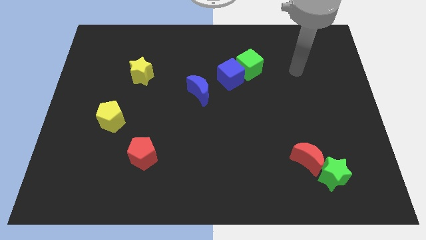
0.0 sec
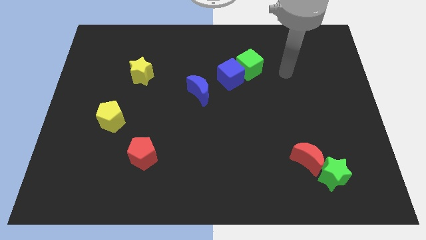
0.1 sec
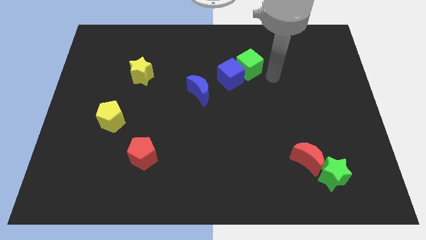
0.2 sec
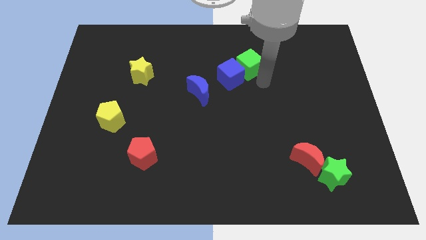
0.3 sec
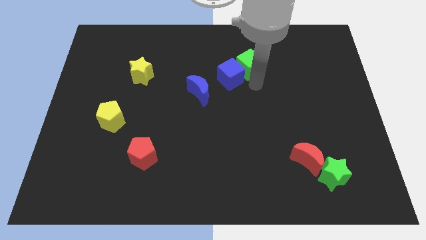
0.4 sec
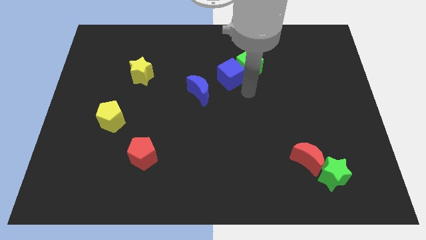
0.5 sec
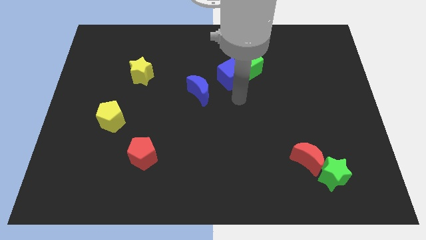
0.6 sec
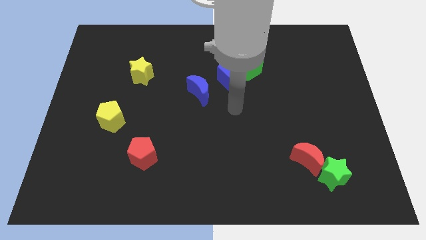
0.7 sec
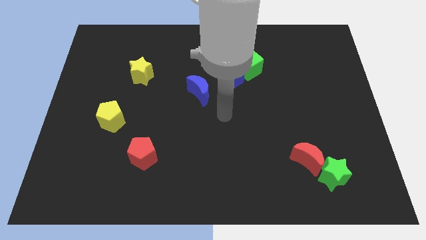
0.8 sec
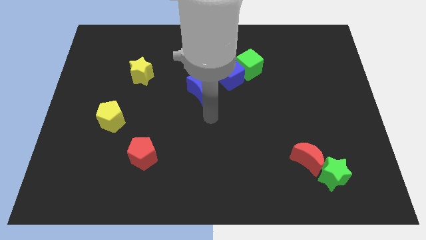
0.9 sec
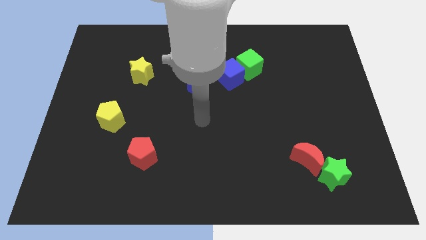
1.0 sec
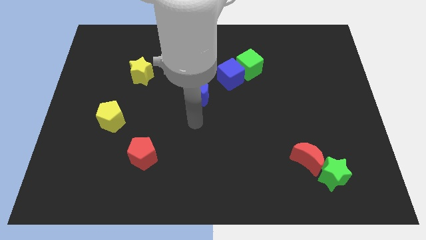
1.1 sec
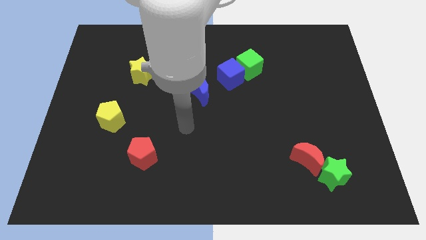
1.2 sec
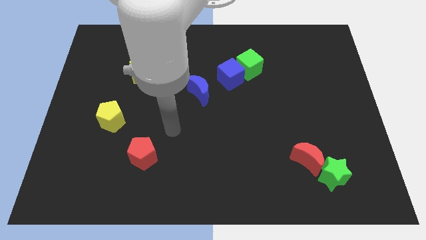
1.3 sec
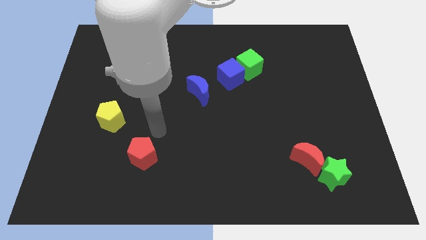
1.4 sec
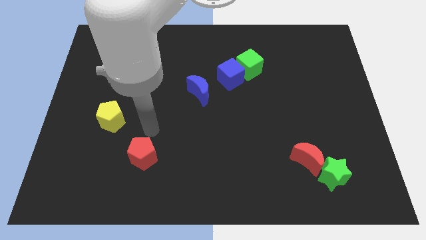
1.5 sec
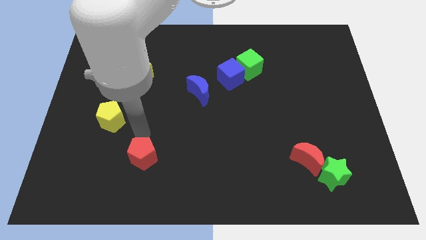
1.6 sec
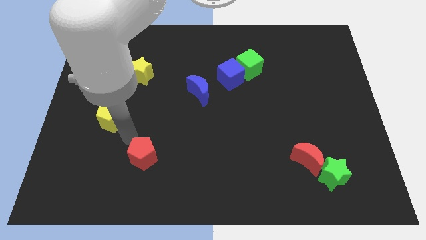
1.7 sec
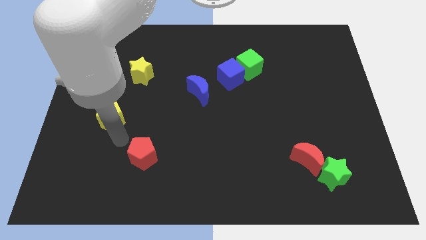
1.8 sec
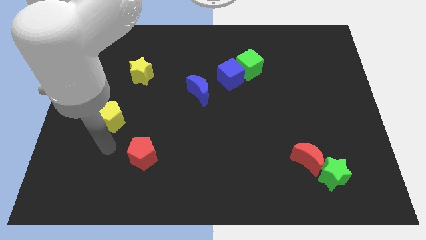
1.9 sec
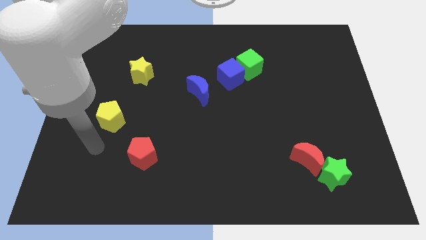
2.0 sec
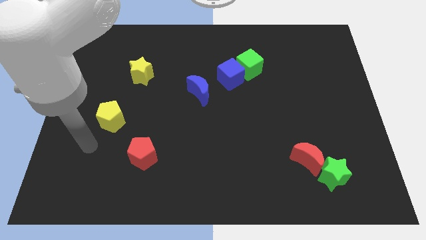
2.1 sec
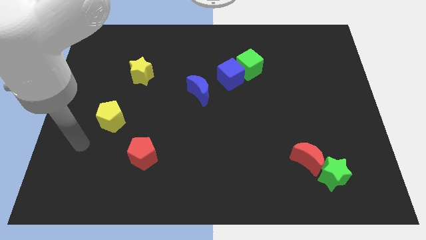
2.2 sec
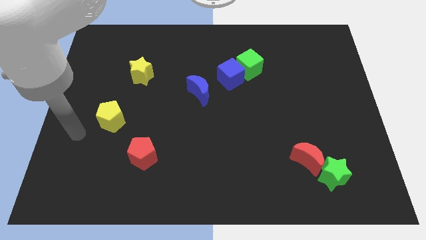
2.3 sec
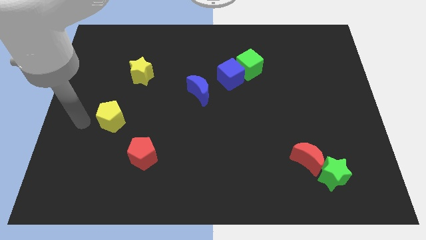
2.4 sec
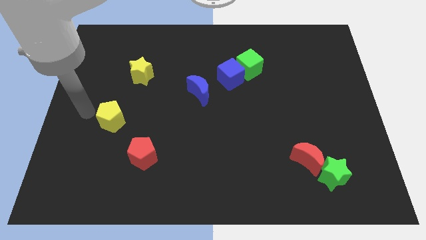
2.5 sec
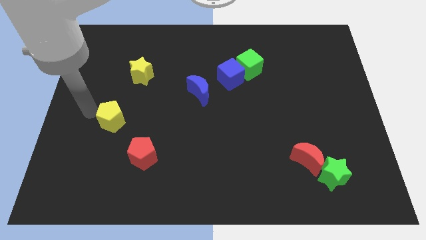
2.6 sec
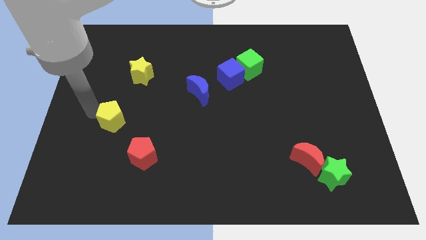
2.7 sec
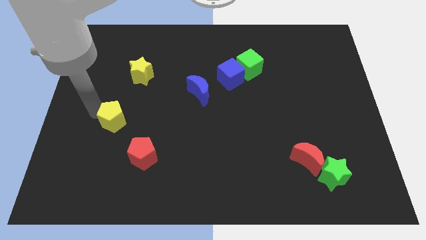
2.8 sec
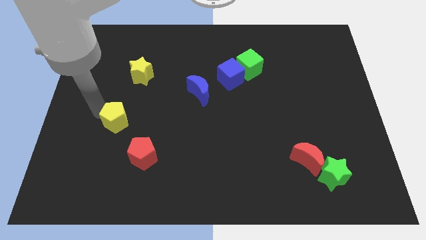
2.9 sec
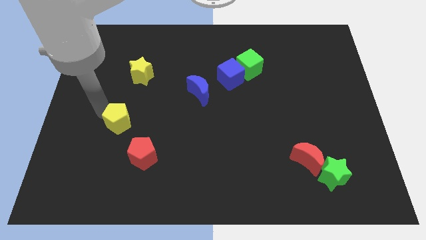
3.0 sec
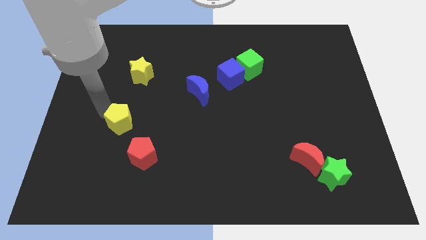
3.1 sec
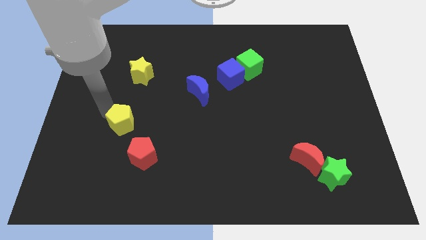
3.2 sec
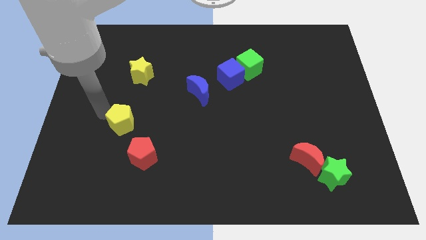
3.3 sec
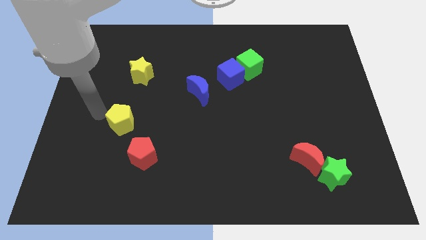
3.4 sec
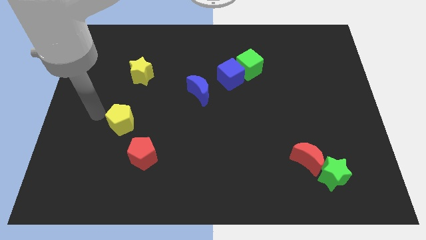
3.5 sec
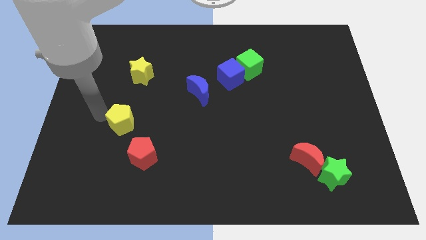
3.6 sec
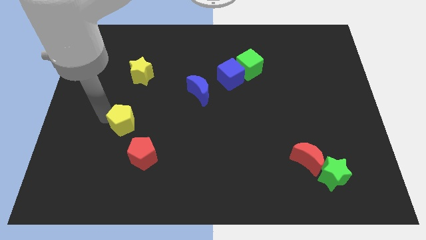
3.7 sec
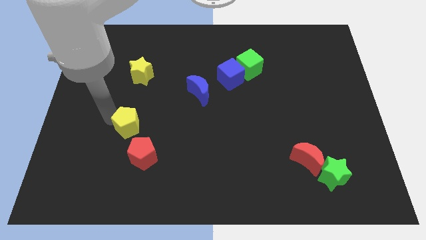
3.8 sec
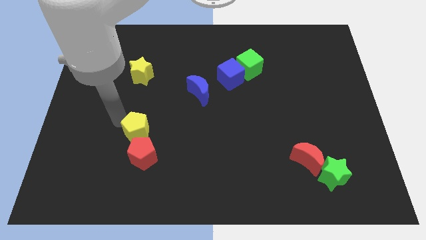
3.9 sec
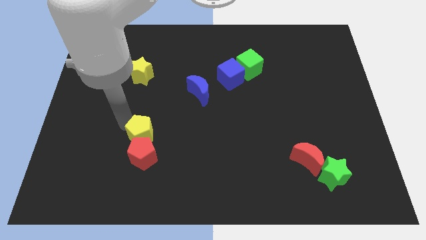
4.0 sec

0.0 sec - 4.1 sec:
slightly move the yellow pentagon downwards and then right

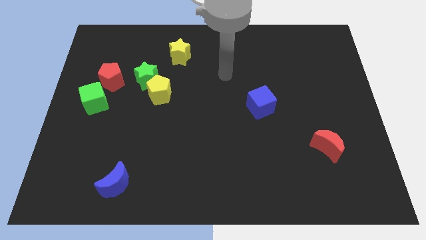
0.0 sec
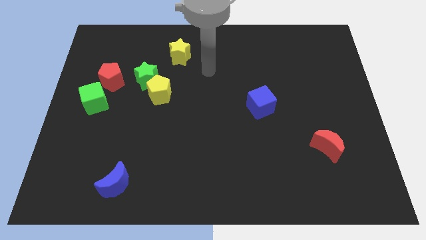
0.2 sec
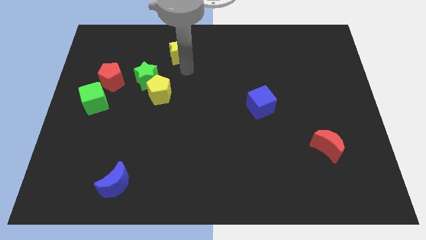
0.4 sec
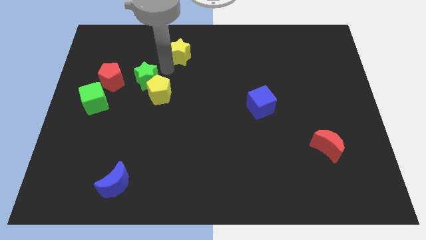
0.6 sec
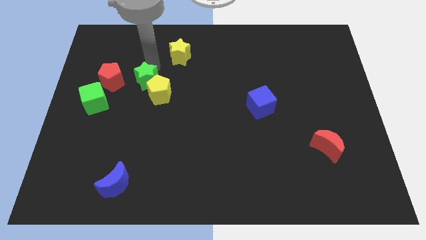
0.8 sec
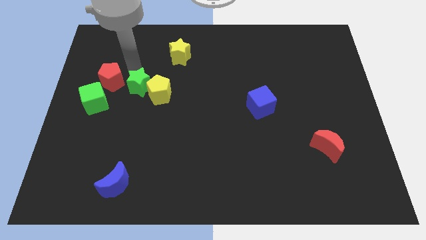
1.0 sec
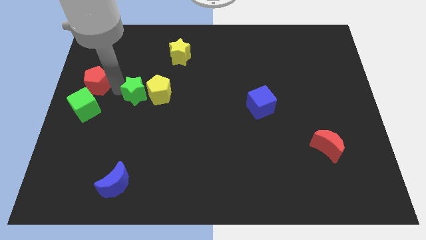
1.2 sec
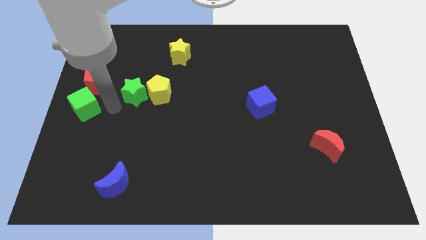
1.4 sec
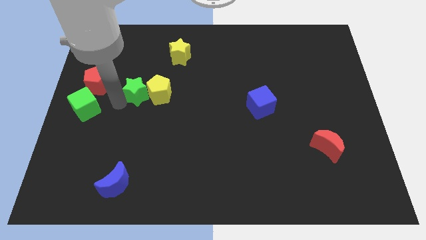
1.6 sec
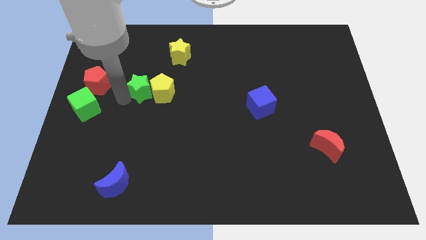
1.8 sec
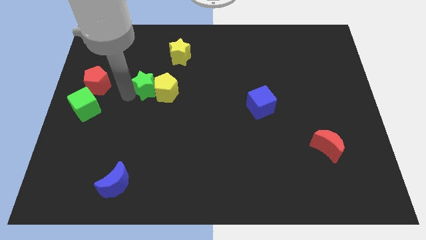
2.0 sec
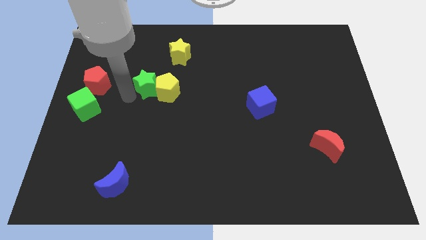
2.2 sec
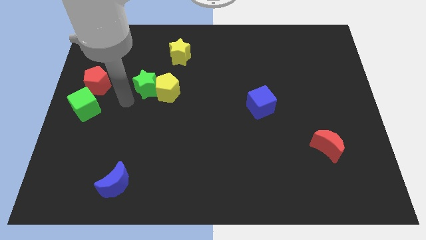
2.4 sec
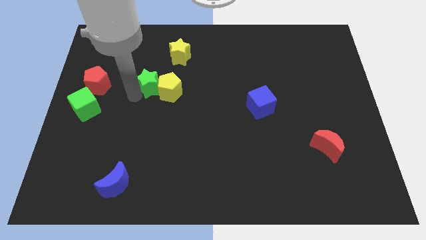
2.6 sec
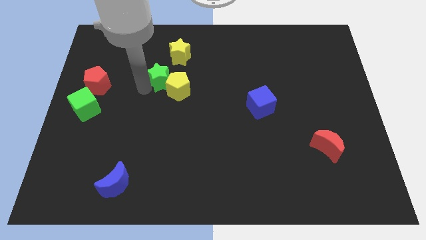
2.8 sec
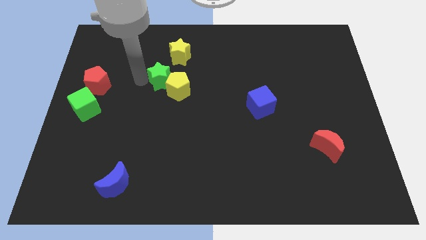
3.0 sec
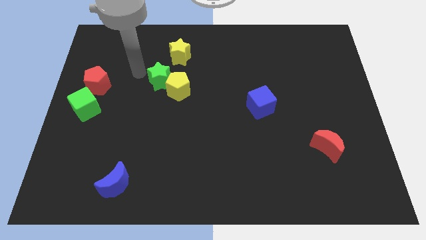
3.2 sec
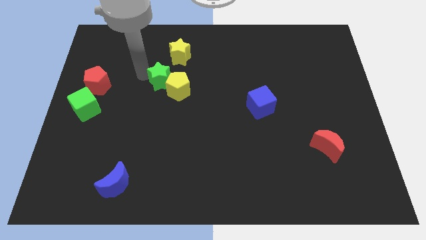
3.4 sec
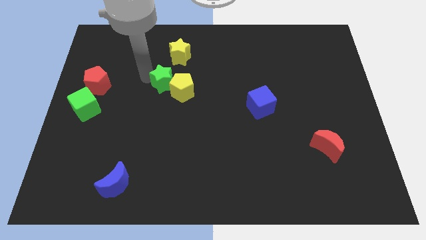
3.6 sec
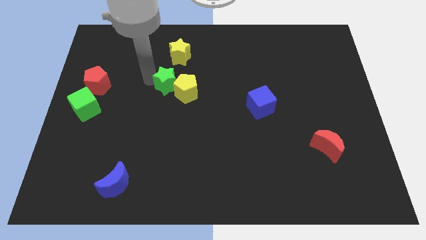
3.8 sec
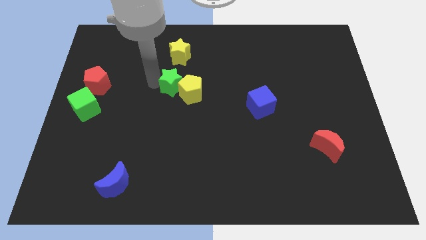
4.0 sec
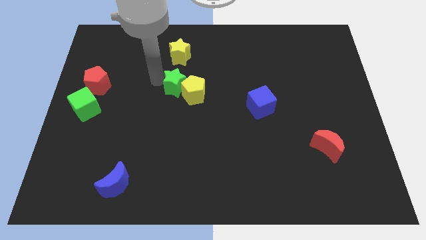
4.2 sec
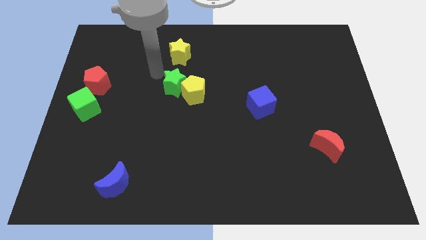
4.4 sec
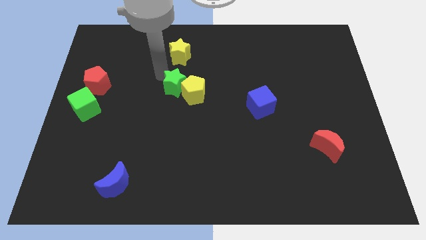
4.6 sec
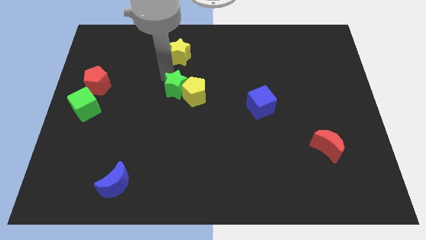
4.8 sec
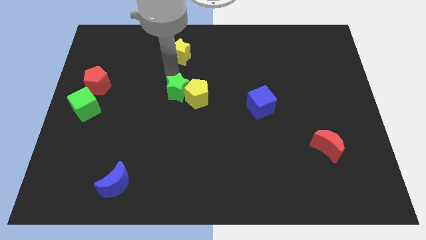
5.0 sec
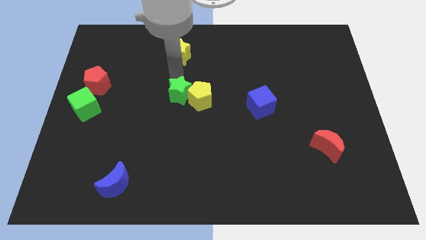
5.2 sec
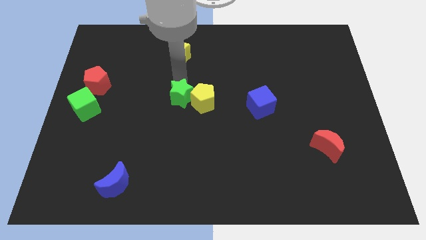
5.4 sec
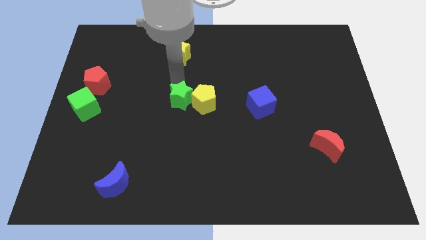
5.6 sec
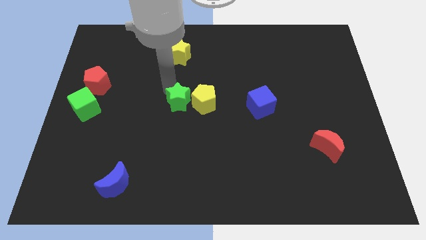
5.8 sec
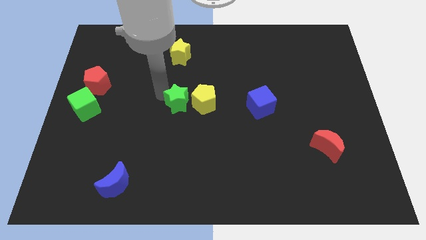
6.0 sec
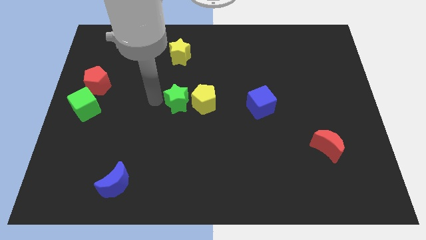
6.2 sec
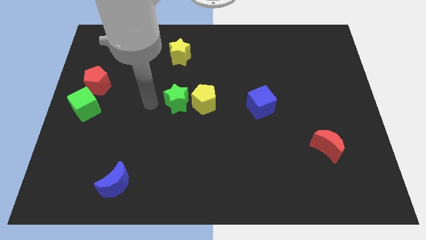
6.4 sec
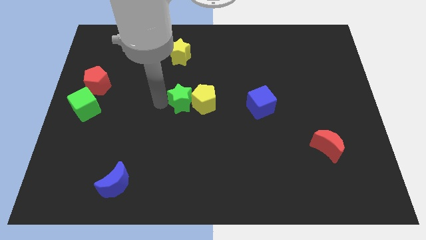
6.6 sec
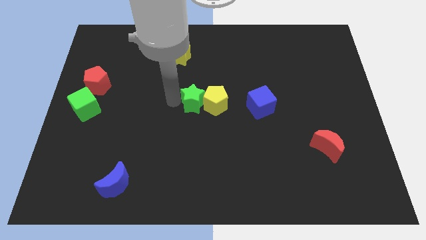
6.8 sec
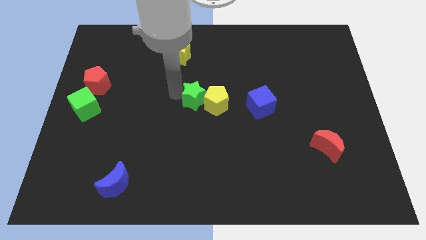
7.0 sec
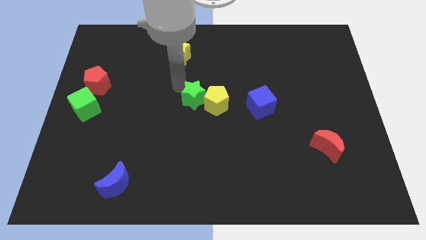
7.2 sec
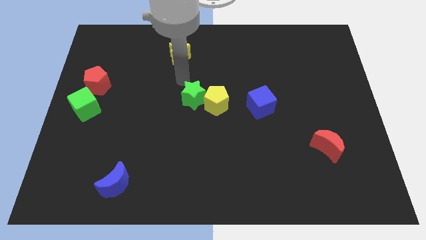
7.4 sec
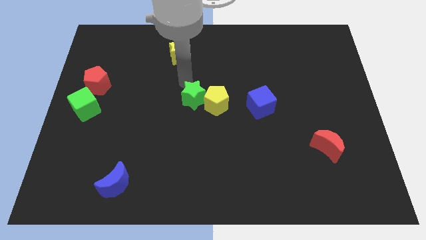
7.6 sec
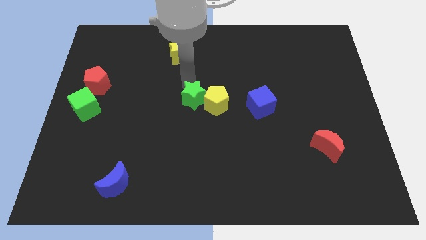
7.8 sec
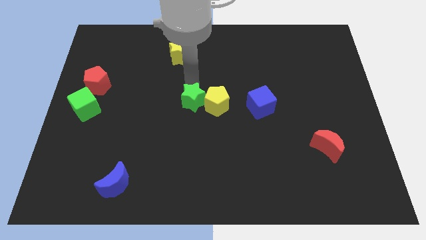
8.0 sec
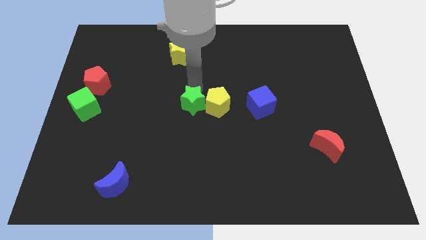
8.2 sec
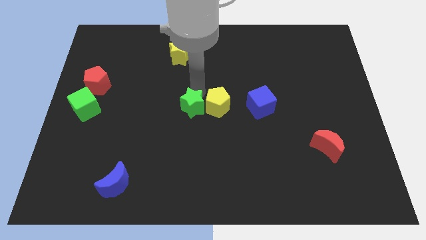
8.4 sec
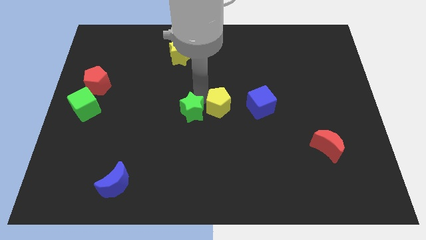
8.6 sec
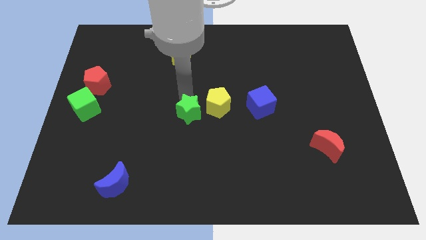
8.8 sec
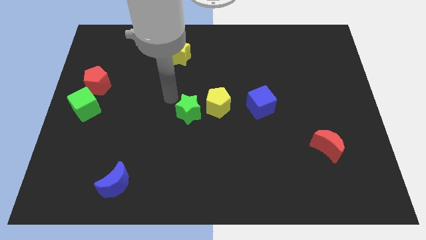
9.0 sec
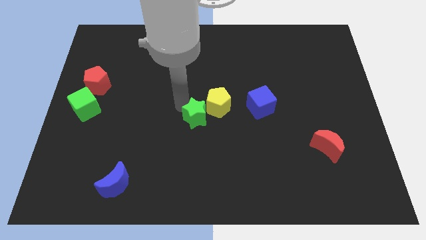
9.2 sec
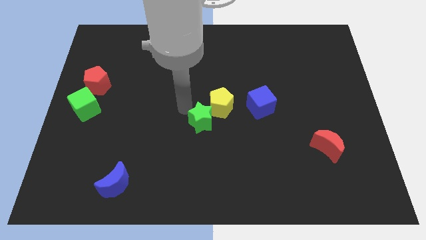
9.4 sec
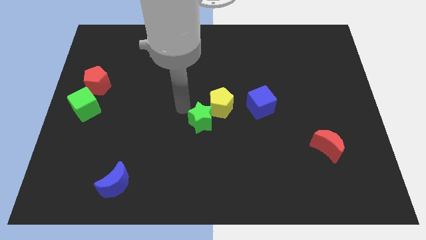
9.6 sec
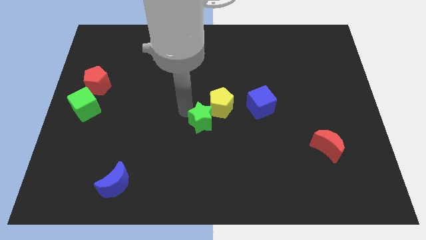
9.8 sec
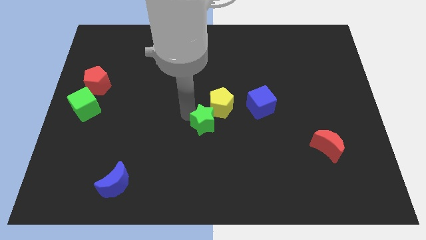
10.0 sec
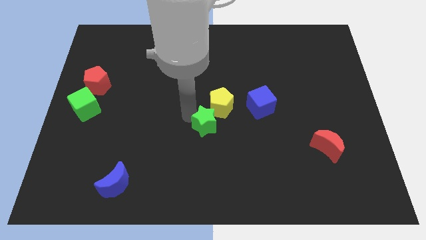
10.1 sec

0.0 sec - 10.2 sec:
move the green star downwards and right
